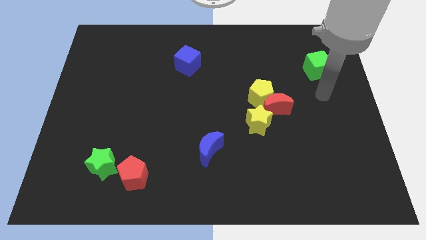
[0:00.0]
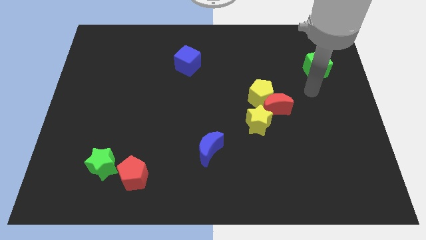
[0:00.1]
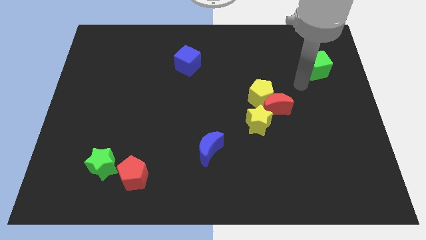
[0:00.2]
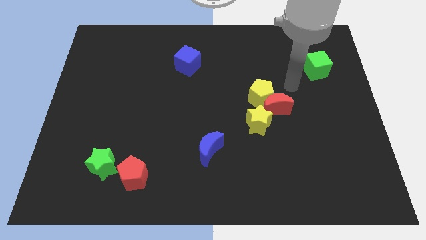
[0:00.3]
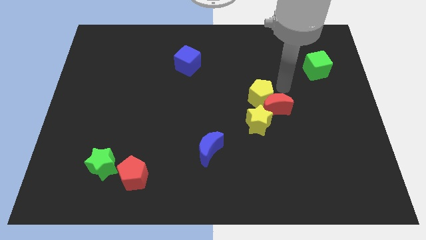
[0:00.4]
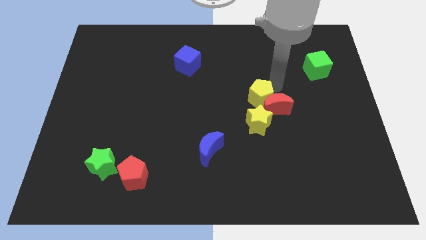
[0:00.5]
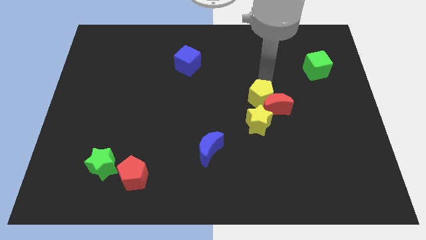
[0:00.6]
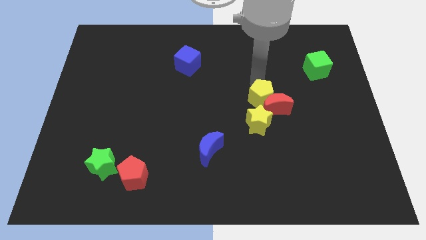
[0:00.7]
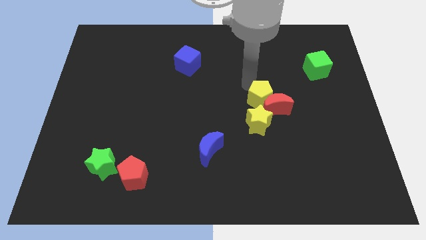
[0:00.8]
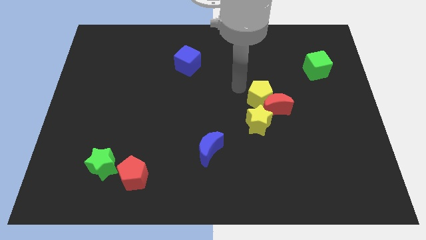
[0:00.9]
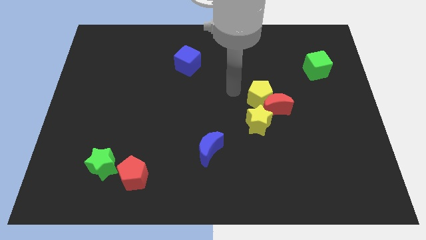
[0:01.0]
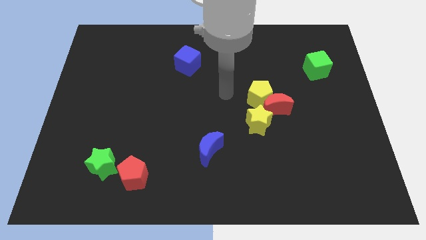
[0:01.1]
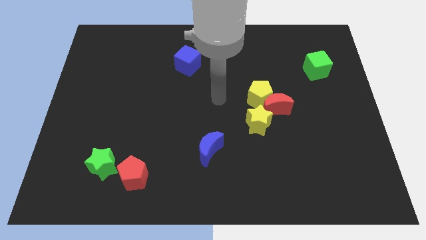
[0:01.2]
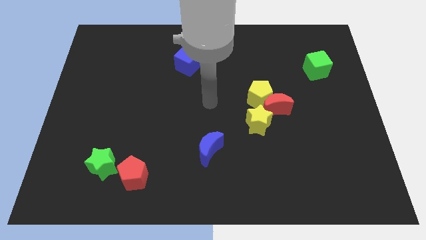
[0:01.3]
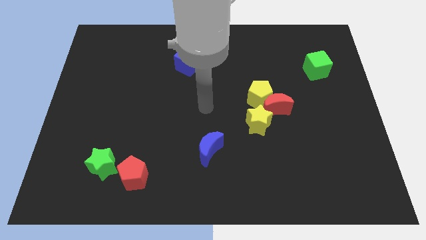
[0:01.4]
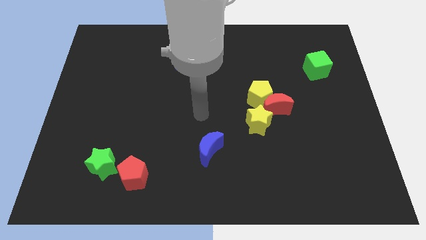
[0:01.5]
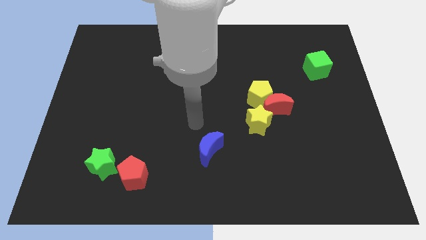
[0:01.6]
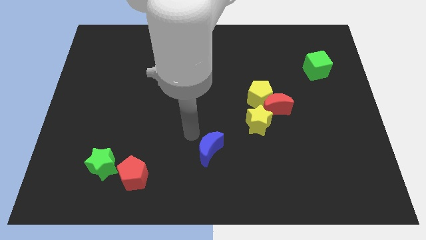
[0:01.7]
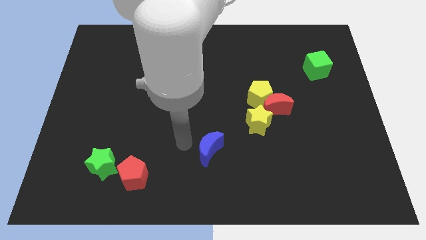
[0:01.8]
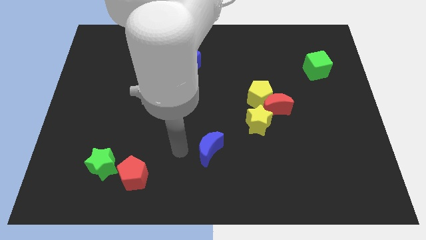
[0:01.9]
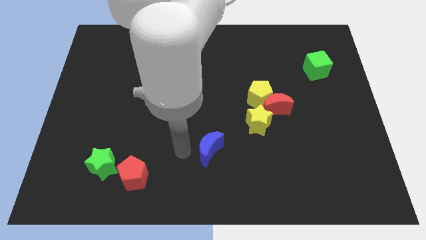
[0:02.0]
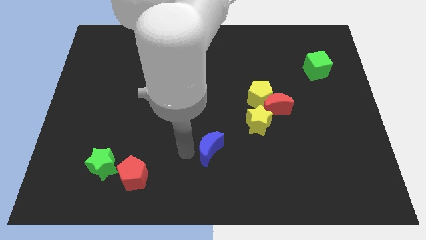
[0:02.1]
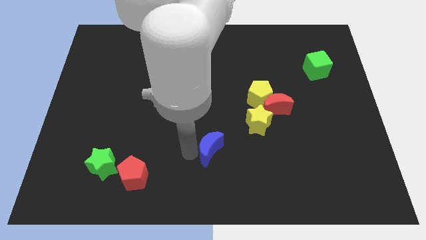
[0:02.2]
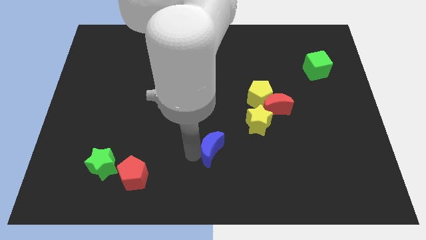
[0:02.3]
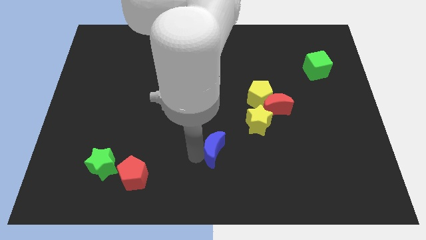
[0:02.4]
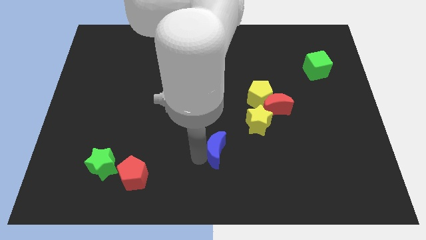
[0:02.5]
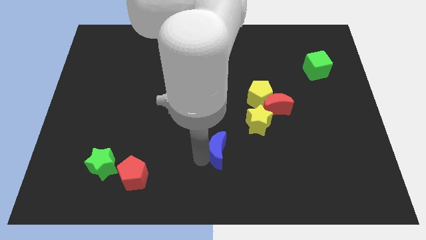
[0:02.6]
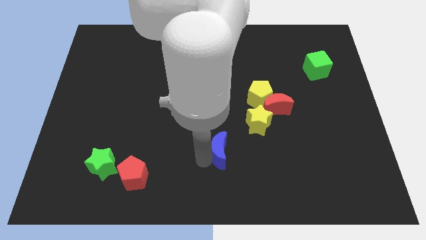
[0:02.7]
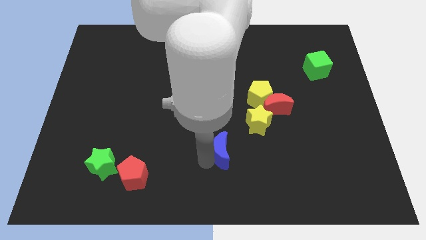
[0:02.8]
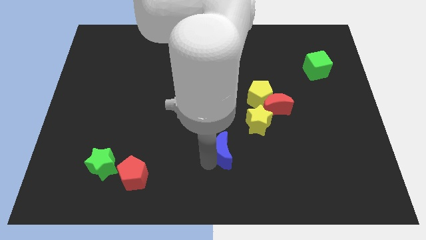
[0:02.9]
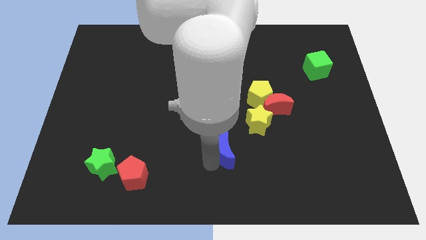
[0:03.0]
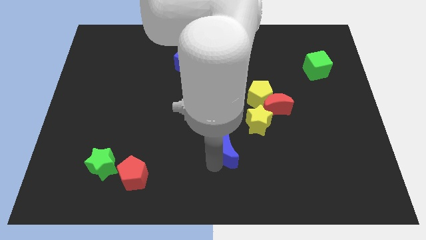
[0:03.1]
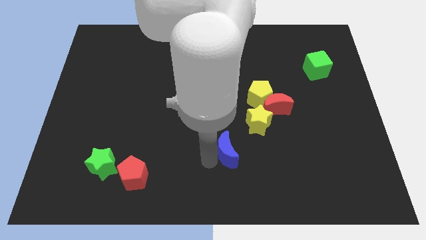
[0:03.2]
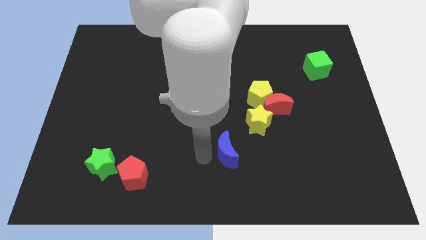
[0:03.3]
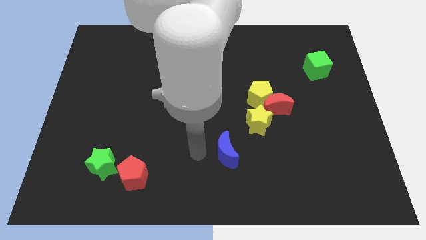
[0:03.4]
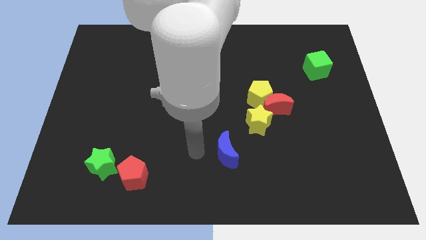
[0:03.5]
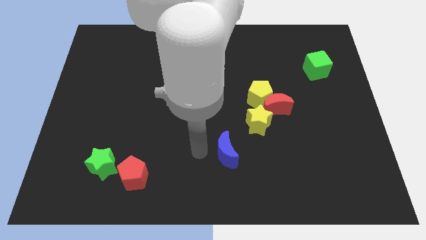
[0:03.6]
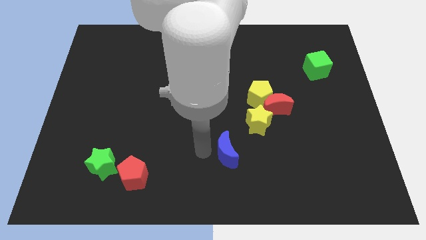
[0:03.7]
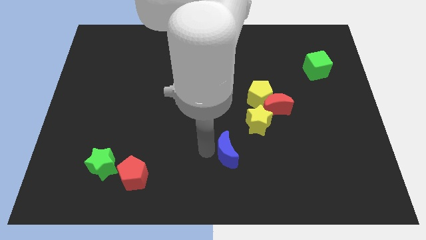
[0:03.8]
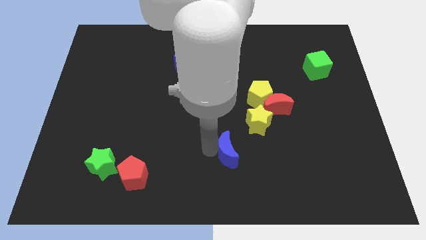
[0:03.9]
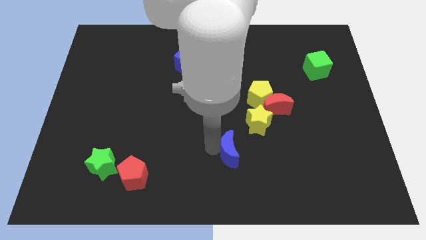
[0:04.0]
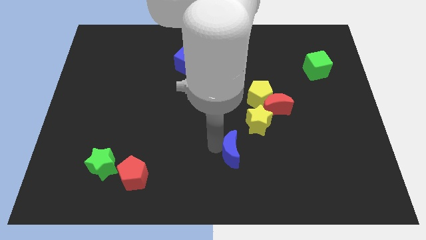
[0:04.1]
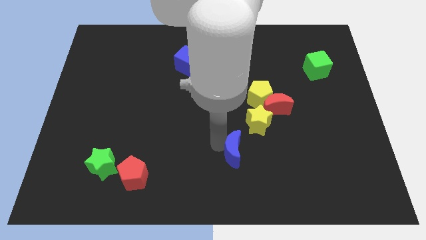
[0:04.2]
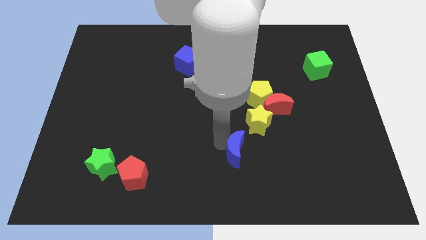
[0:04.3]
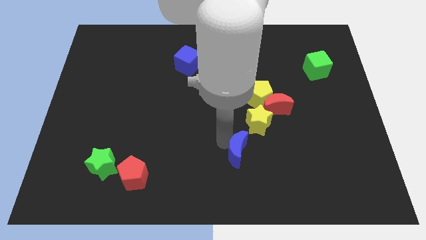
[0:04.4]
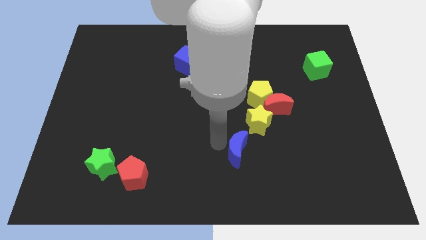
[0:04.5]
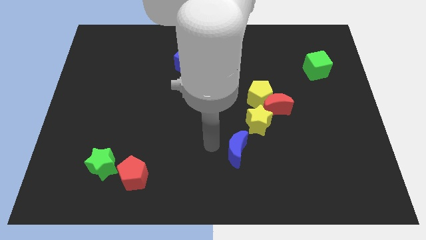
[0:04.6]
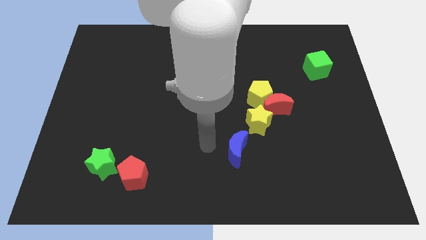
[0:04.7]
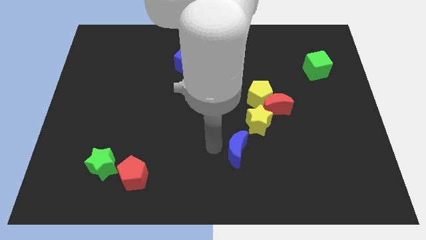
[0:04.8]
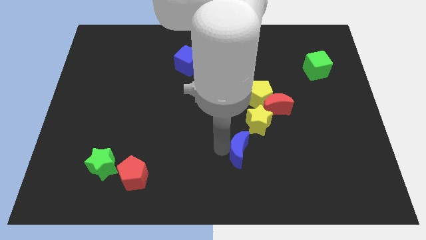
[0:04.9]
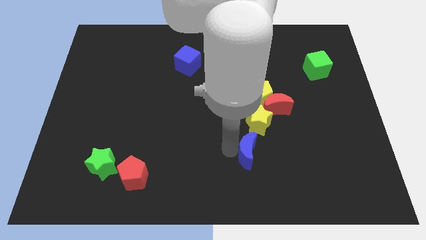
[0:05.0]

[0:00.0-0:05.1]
slightly slide the blue moon right

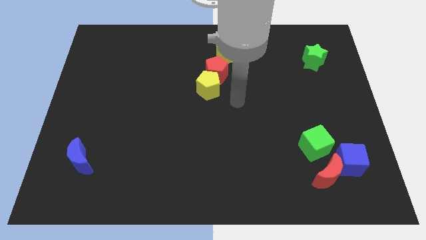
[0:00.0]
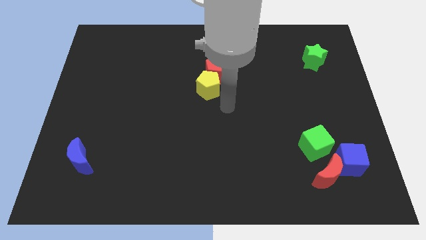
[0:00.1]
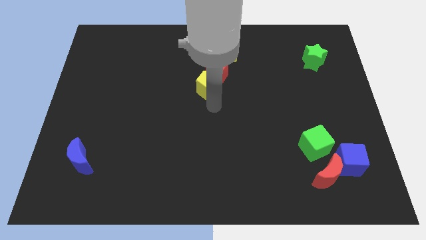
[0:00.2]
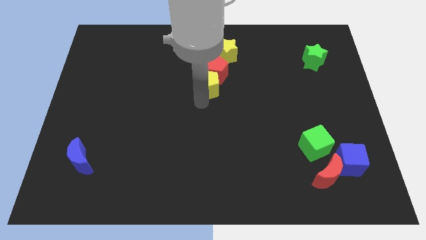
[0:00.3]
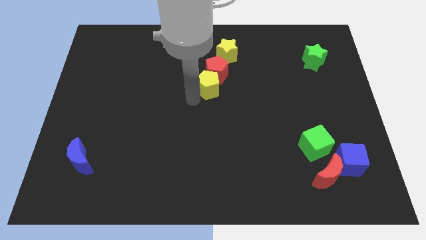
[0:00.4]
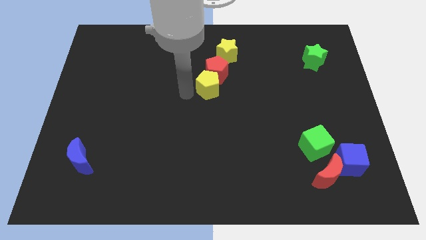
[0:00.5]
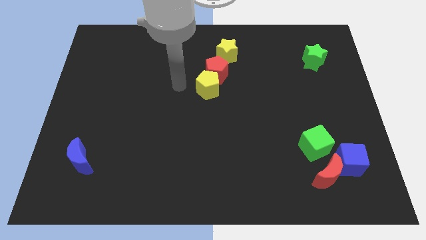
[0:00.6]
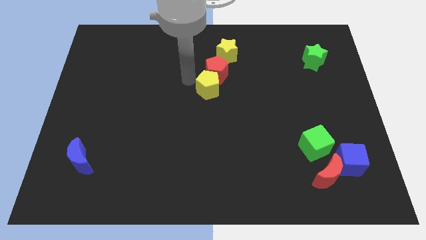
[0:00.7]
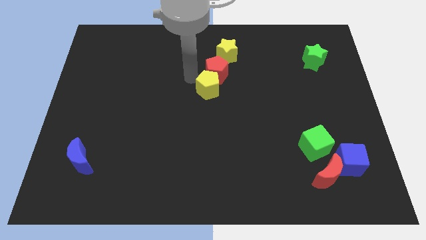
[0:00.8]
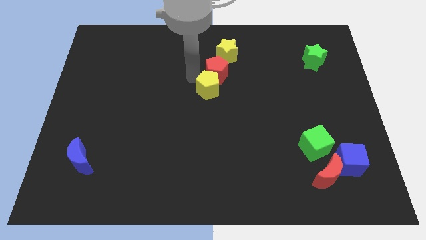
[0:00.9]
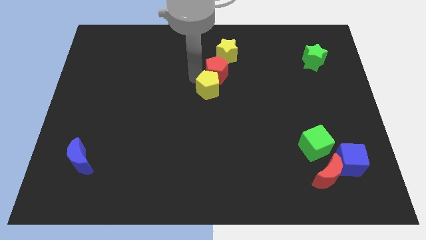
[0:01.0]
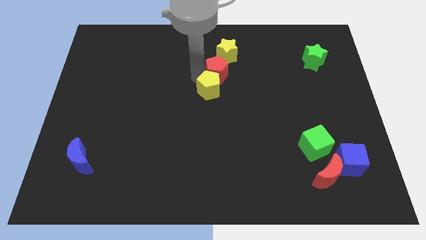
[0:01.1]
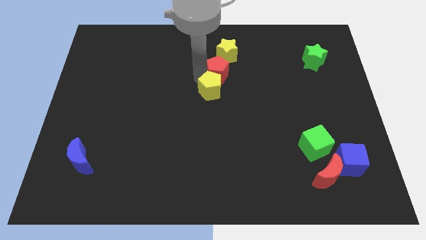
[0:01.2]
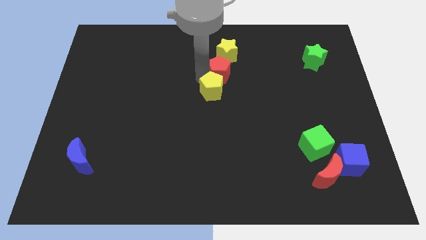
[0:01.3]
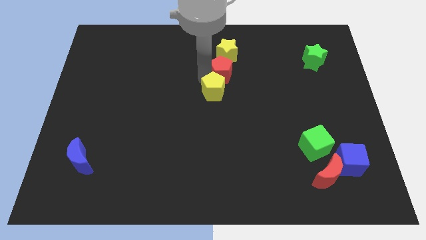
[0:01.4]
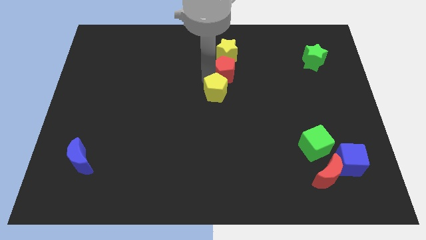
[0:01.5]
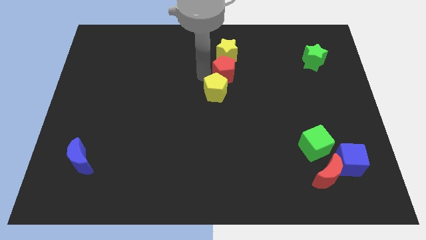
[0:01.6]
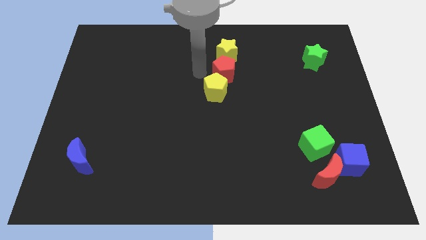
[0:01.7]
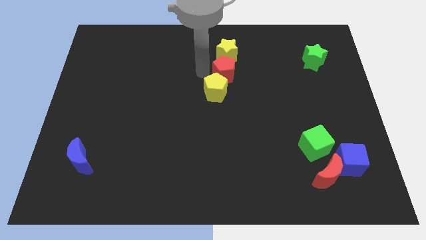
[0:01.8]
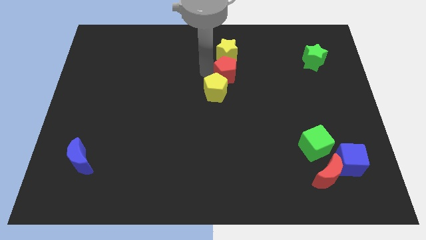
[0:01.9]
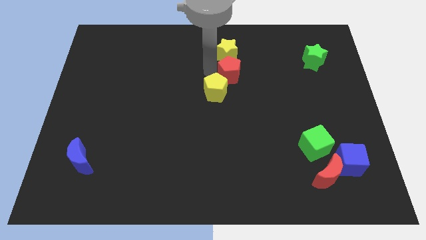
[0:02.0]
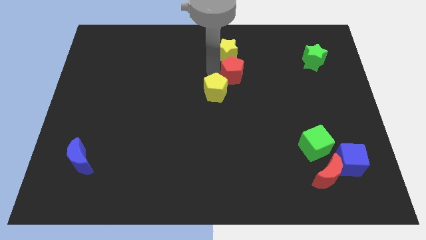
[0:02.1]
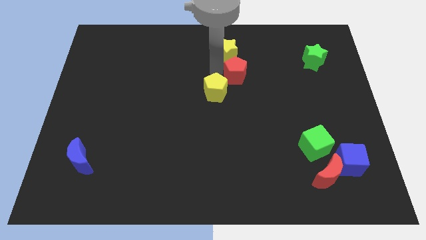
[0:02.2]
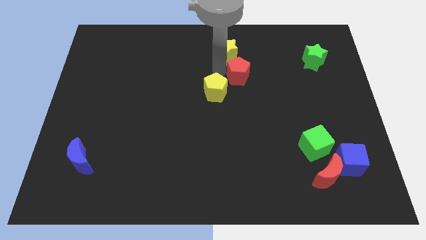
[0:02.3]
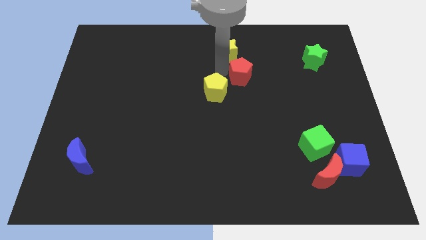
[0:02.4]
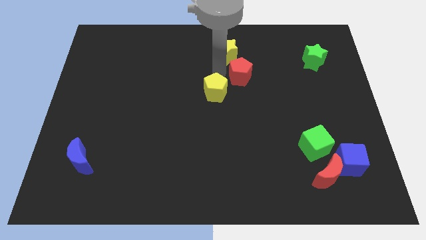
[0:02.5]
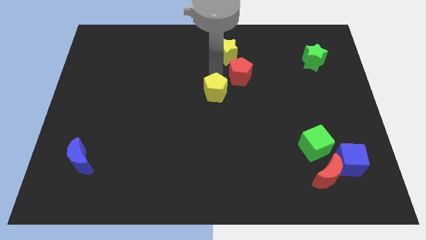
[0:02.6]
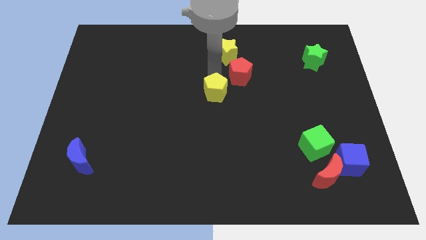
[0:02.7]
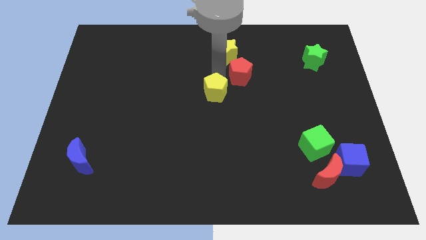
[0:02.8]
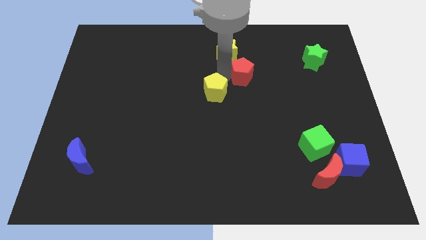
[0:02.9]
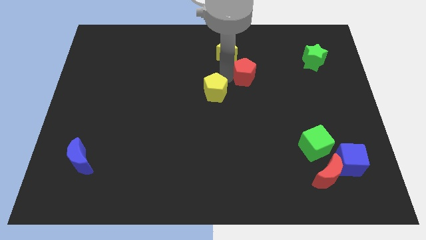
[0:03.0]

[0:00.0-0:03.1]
move the red pentagon to the right somewhat
